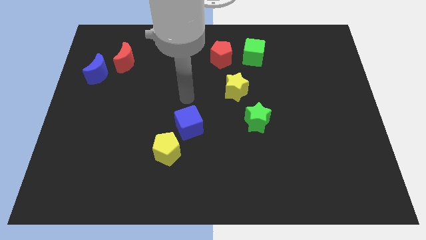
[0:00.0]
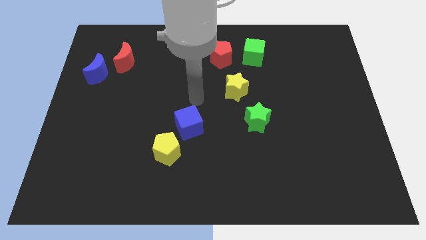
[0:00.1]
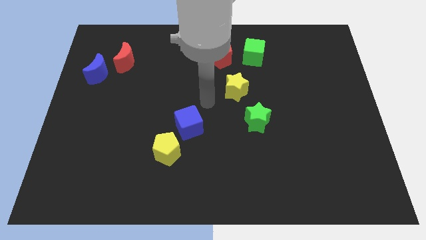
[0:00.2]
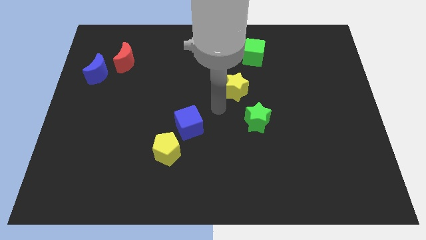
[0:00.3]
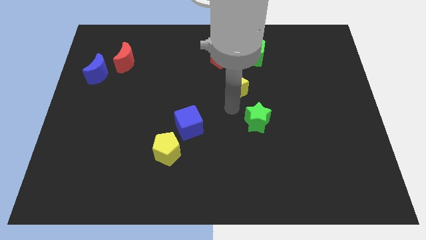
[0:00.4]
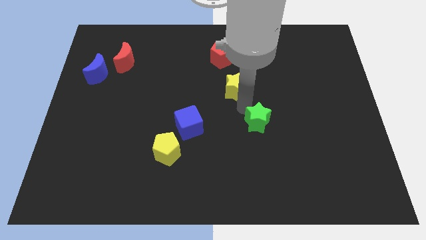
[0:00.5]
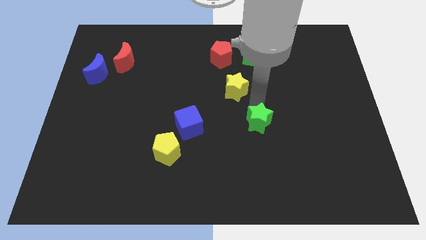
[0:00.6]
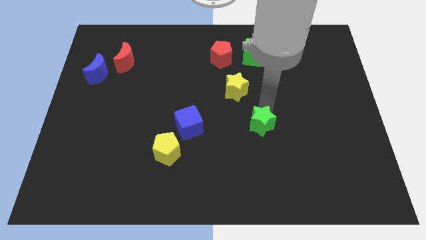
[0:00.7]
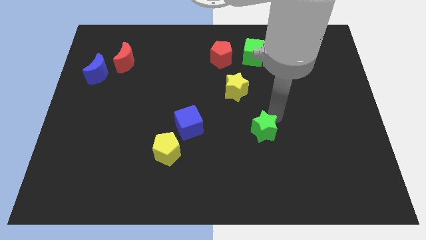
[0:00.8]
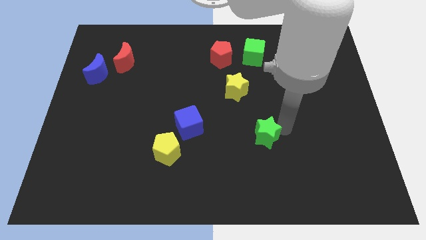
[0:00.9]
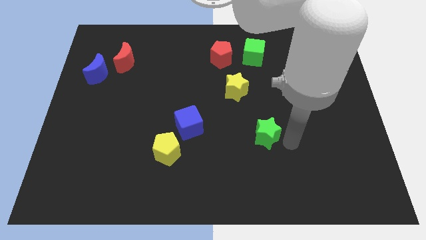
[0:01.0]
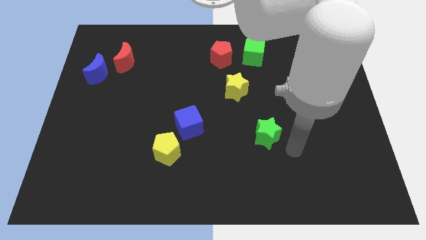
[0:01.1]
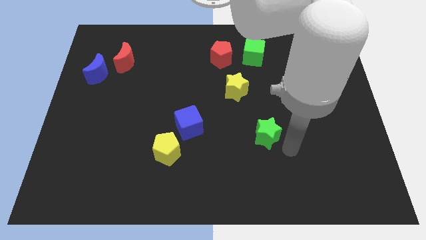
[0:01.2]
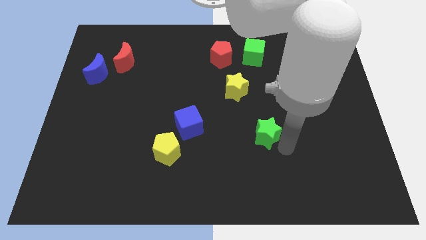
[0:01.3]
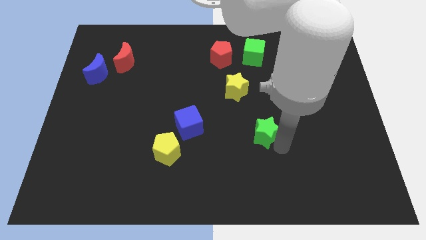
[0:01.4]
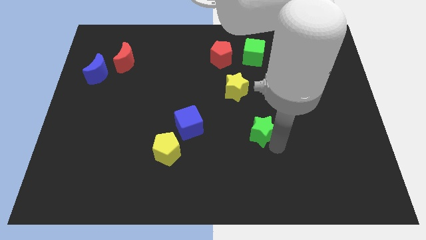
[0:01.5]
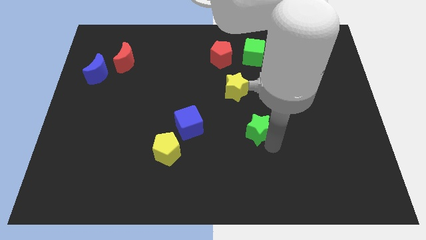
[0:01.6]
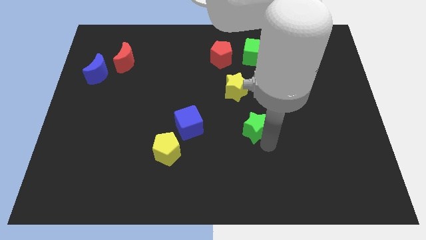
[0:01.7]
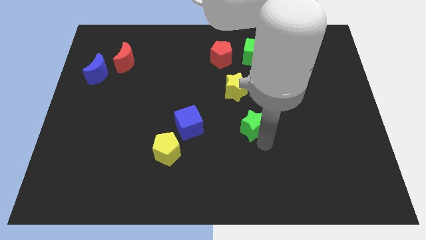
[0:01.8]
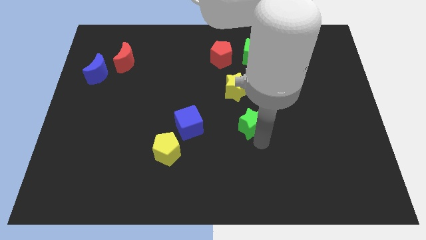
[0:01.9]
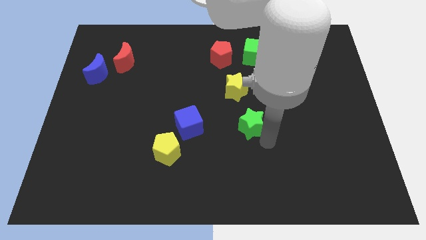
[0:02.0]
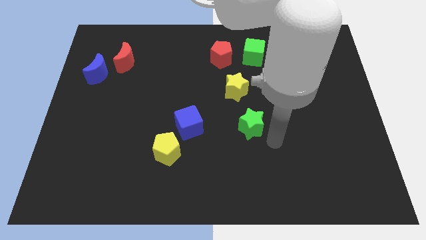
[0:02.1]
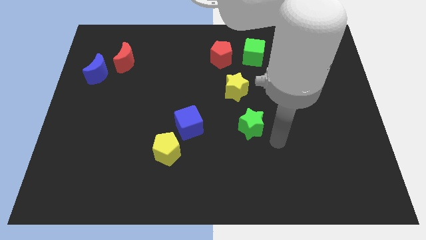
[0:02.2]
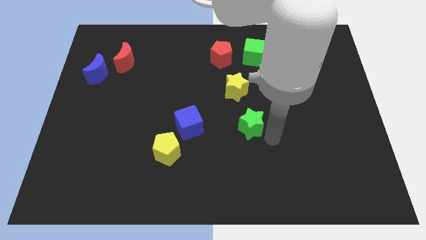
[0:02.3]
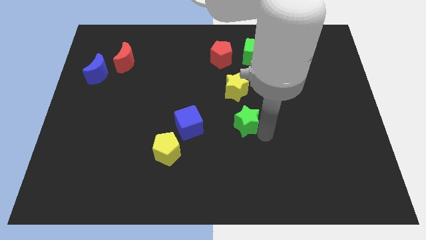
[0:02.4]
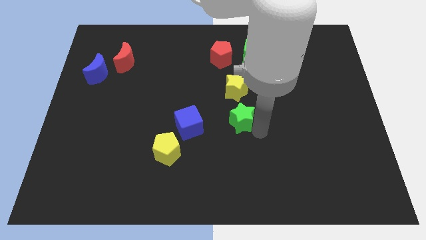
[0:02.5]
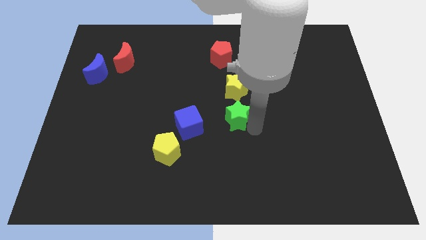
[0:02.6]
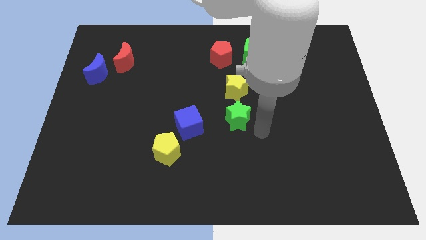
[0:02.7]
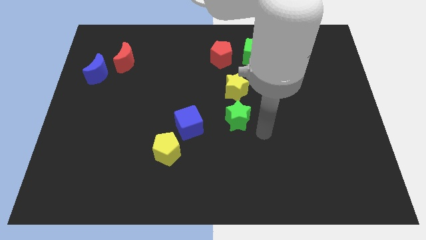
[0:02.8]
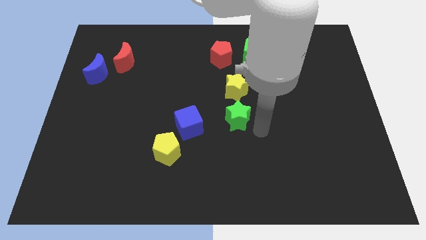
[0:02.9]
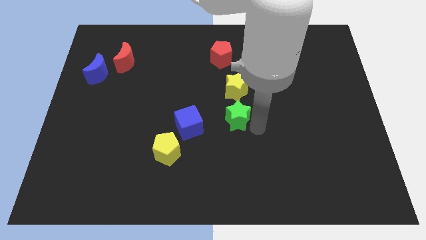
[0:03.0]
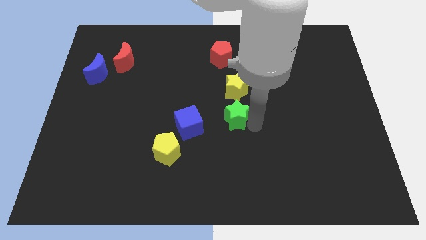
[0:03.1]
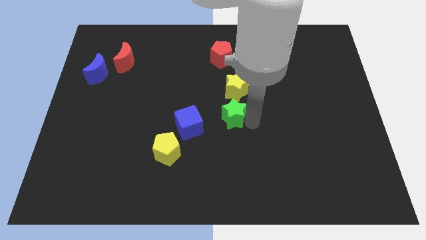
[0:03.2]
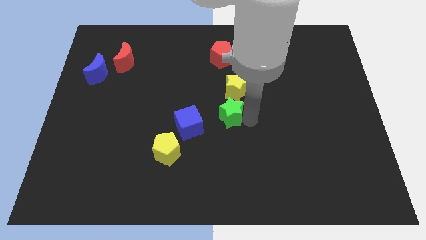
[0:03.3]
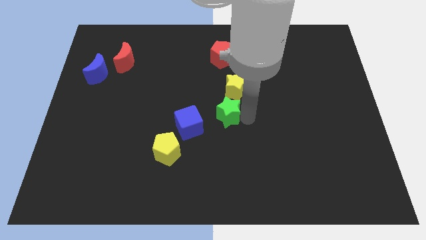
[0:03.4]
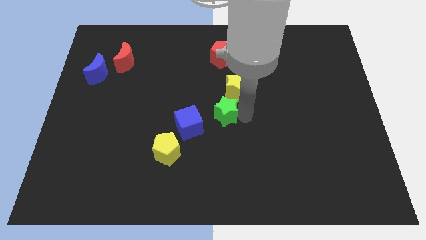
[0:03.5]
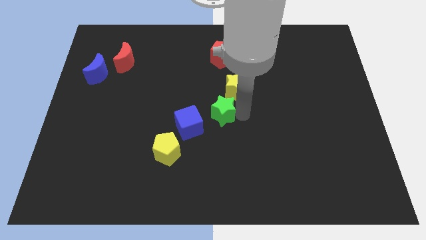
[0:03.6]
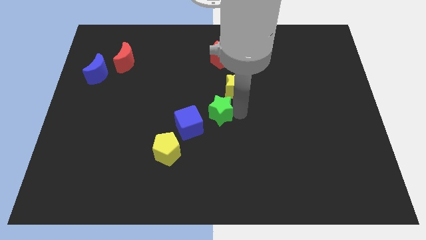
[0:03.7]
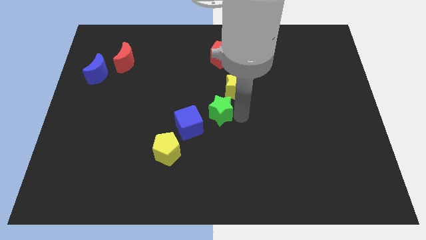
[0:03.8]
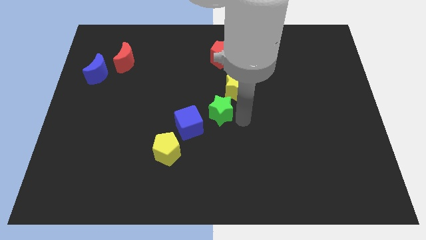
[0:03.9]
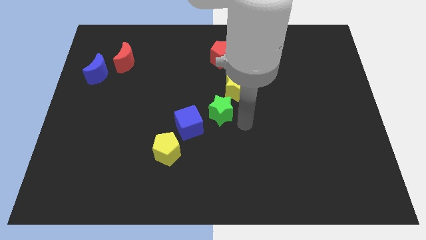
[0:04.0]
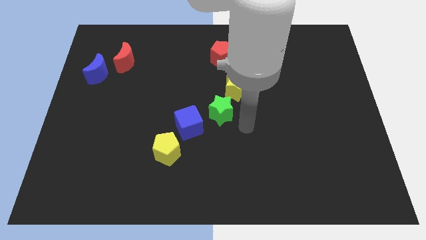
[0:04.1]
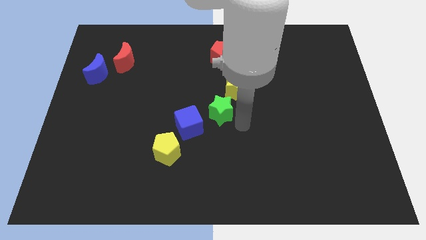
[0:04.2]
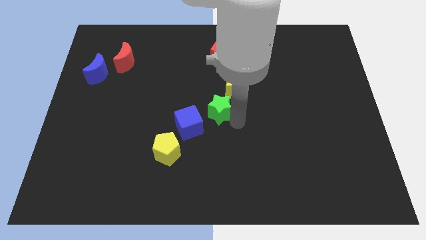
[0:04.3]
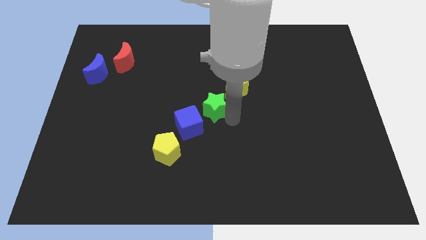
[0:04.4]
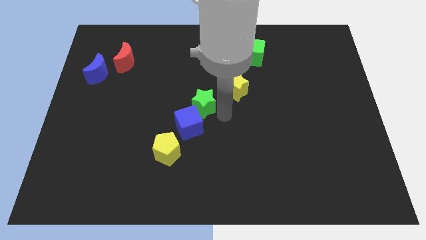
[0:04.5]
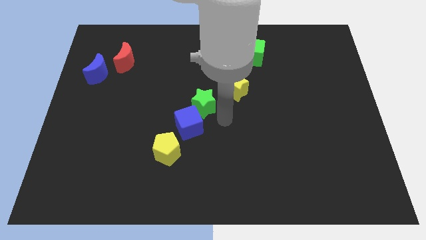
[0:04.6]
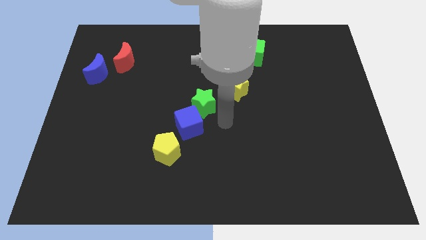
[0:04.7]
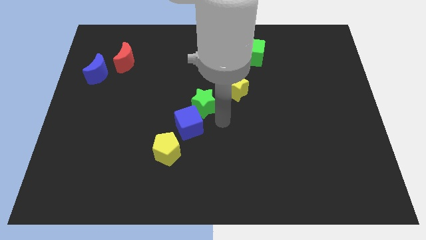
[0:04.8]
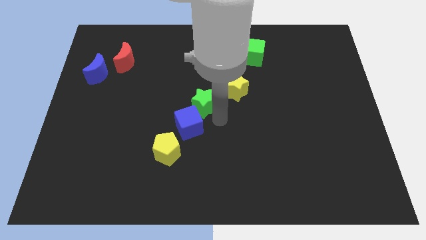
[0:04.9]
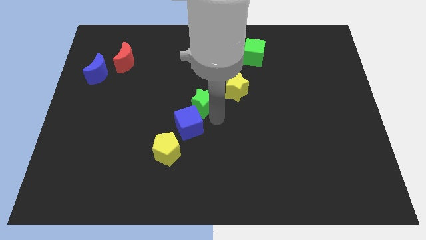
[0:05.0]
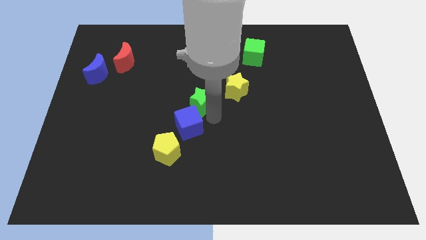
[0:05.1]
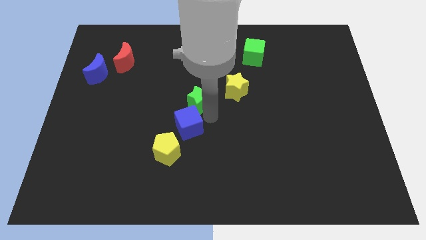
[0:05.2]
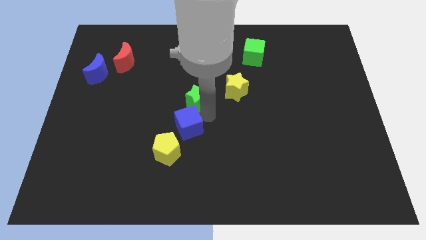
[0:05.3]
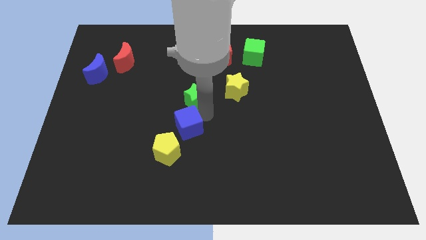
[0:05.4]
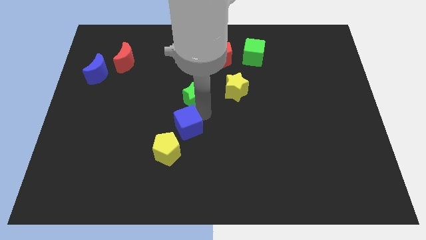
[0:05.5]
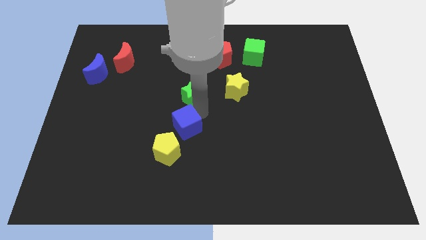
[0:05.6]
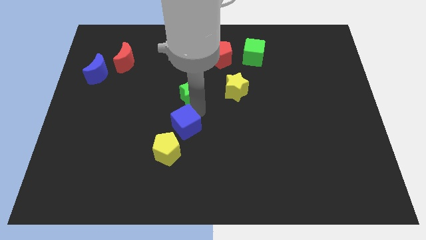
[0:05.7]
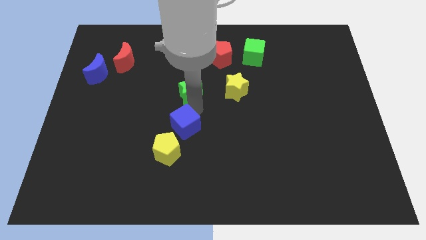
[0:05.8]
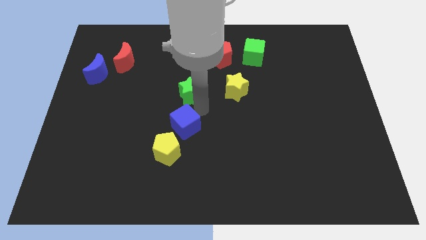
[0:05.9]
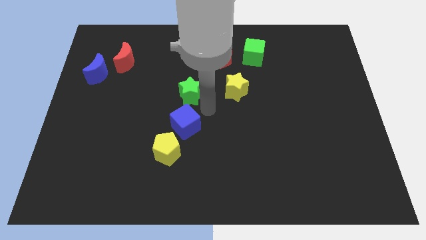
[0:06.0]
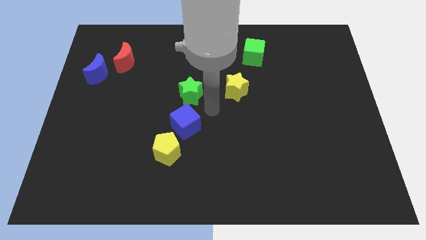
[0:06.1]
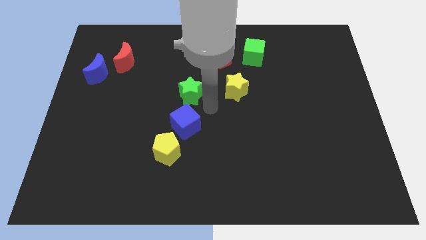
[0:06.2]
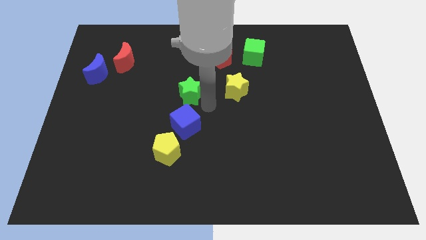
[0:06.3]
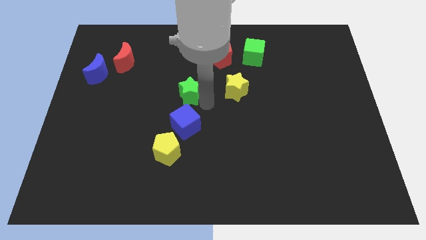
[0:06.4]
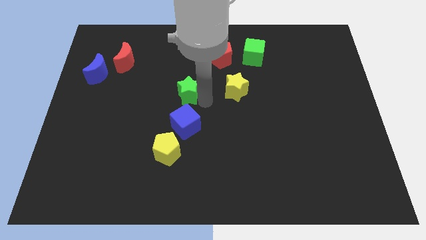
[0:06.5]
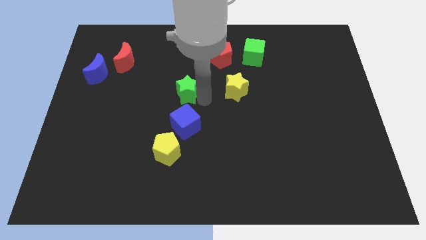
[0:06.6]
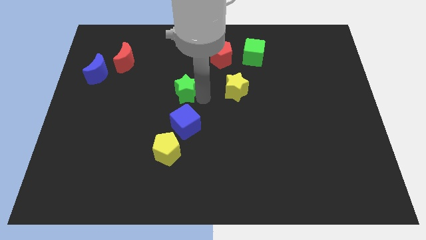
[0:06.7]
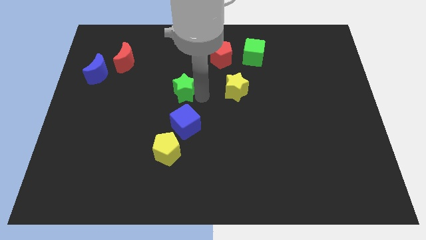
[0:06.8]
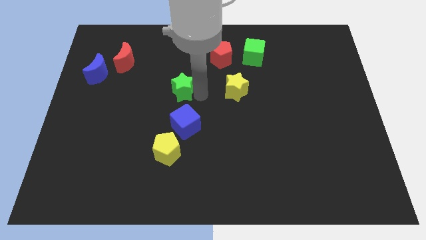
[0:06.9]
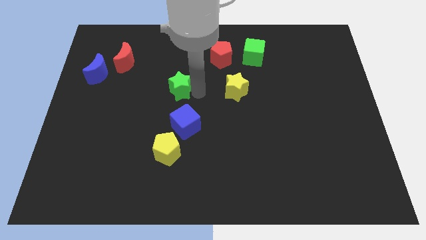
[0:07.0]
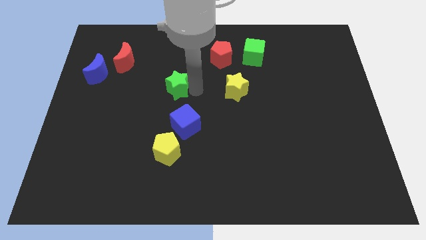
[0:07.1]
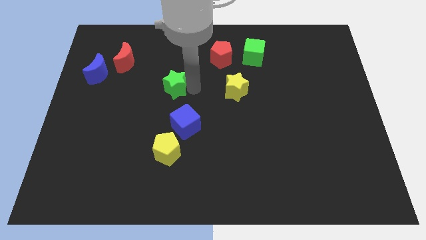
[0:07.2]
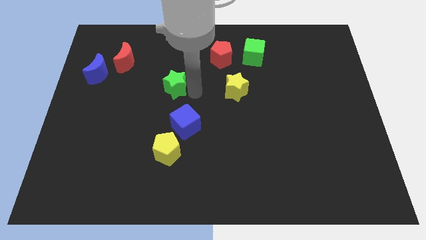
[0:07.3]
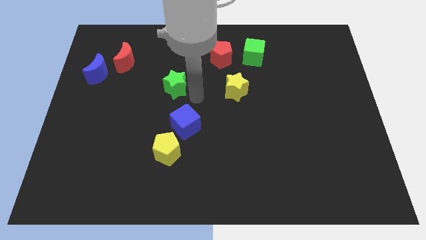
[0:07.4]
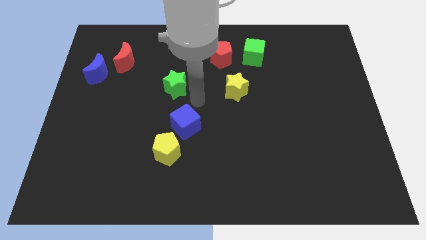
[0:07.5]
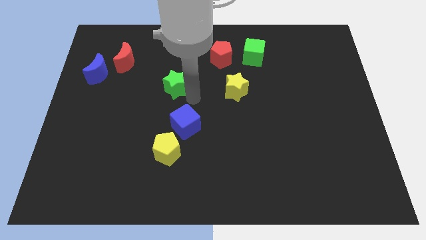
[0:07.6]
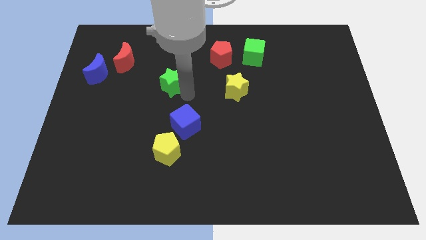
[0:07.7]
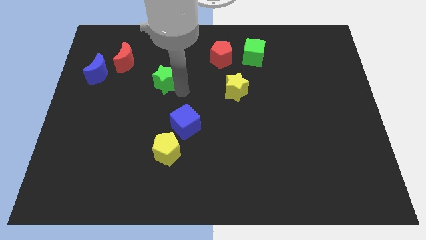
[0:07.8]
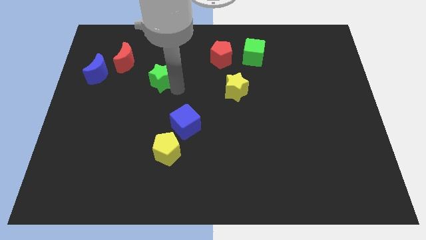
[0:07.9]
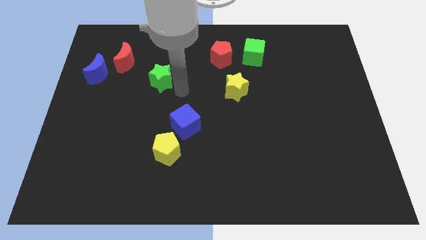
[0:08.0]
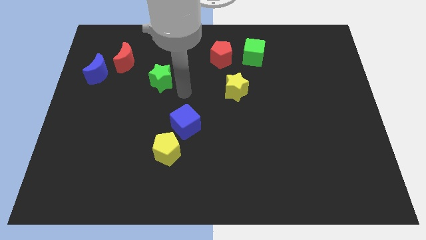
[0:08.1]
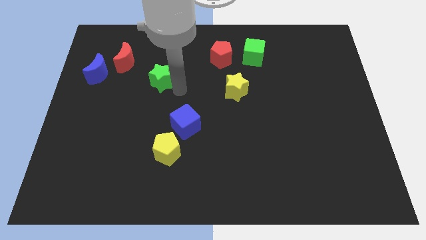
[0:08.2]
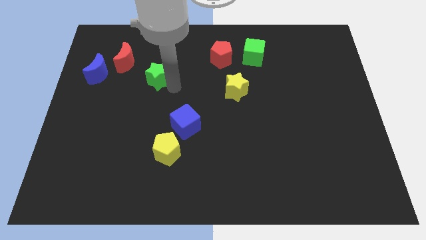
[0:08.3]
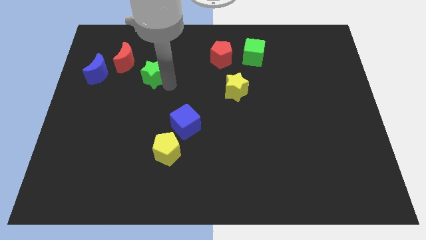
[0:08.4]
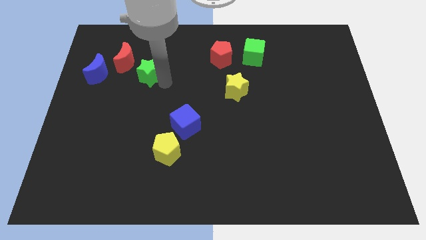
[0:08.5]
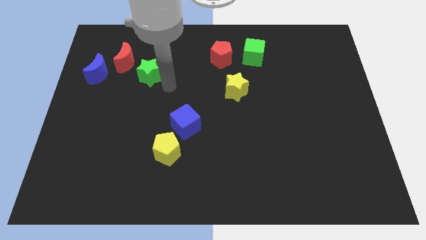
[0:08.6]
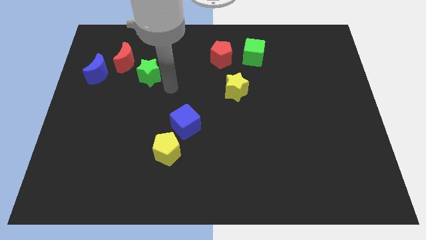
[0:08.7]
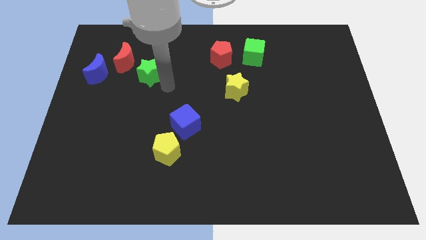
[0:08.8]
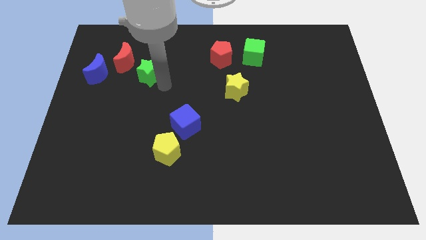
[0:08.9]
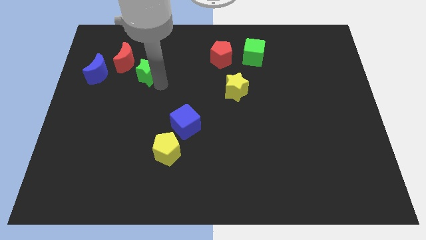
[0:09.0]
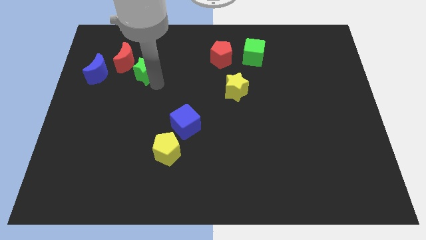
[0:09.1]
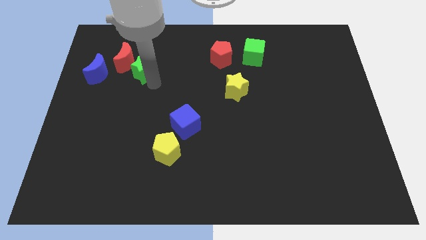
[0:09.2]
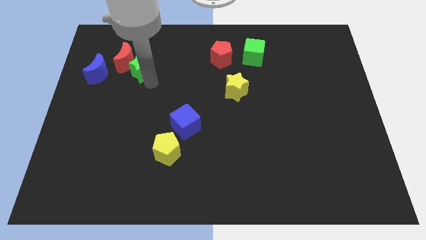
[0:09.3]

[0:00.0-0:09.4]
push the green star next to the red moon
